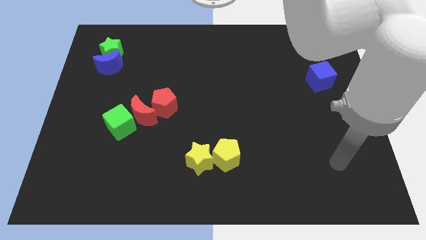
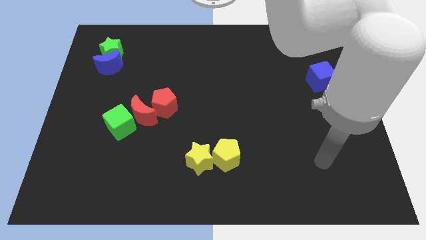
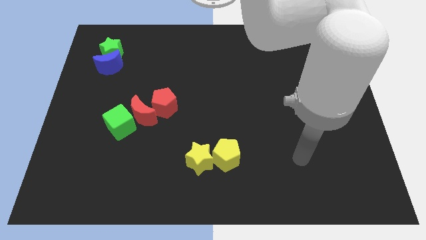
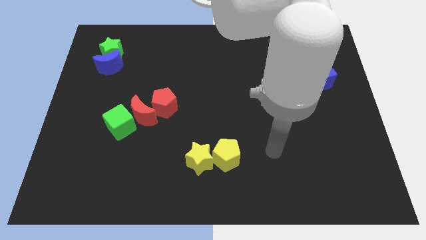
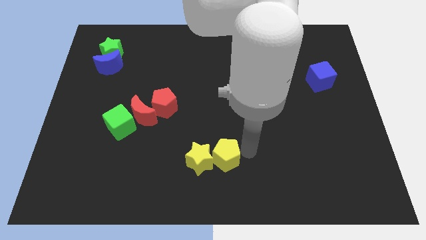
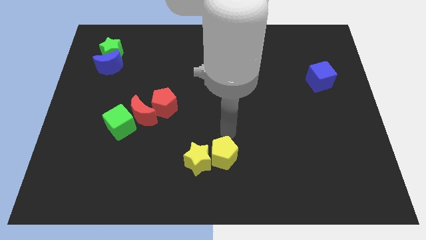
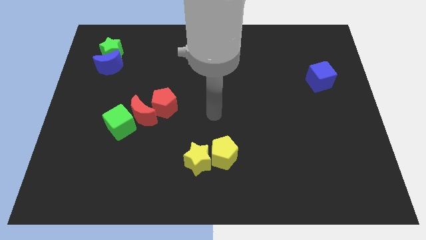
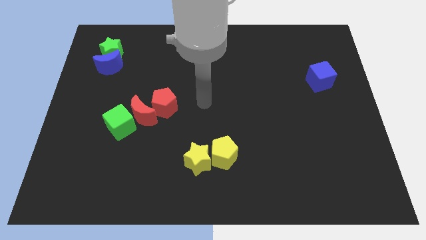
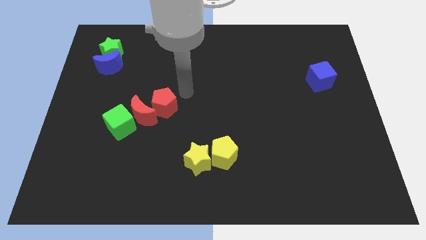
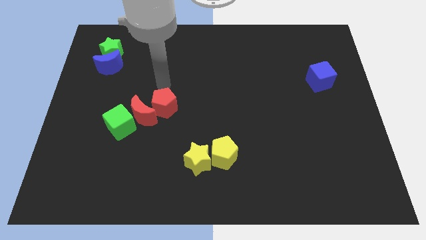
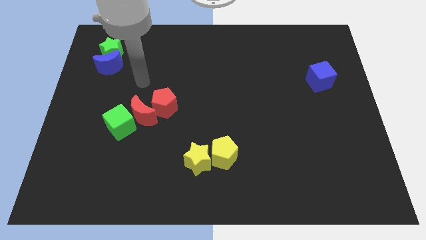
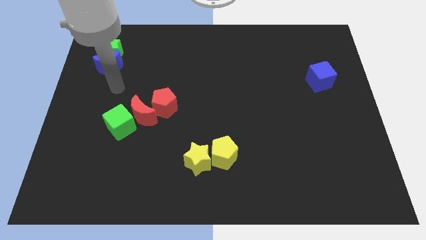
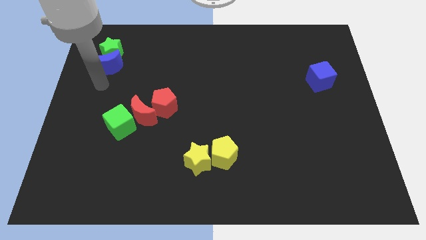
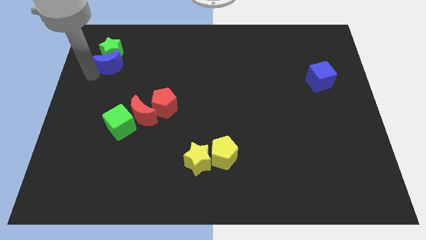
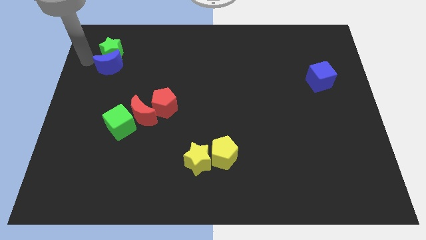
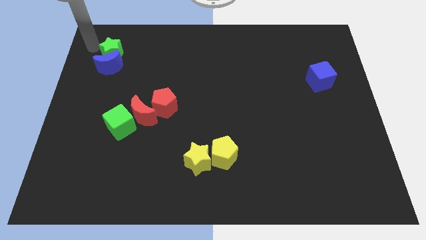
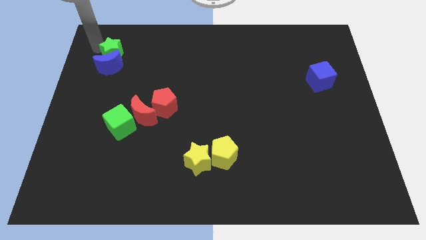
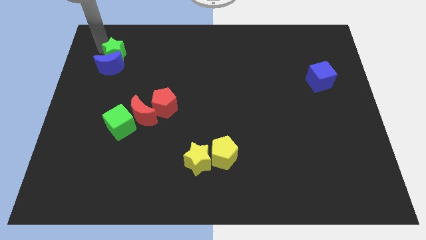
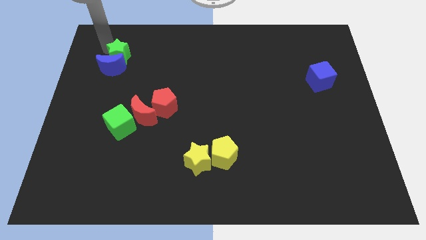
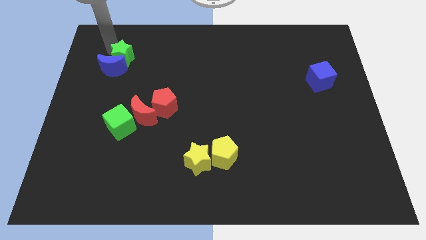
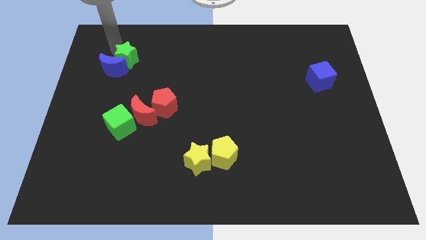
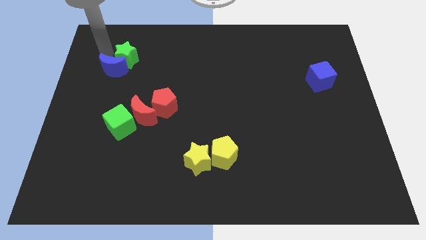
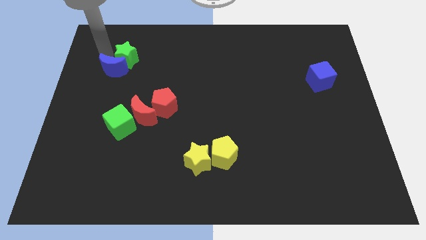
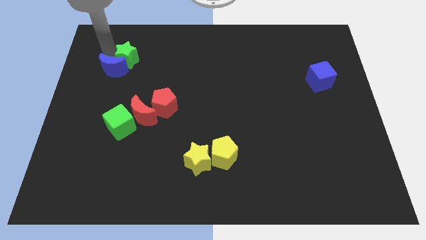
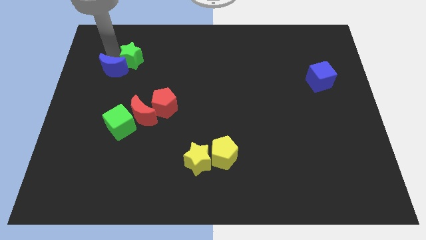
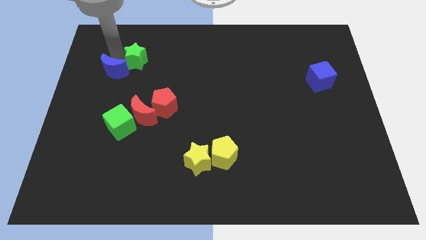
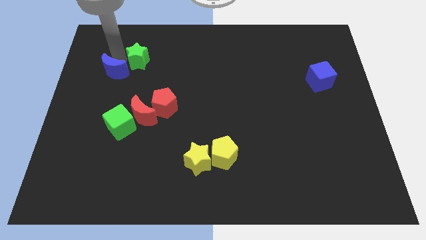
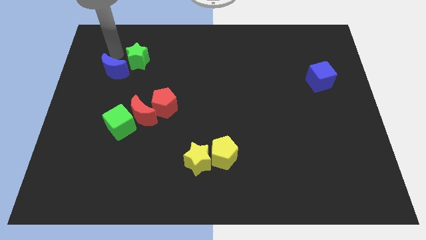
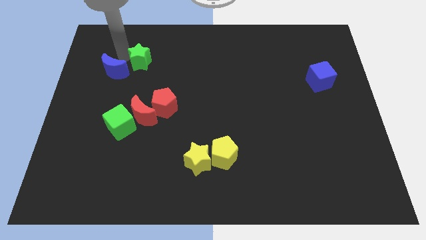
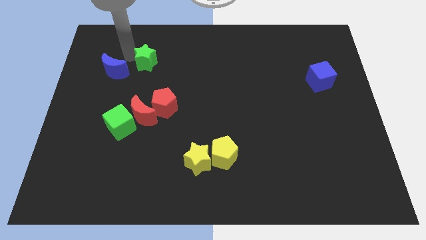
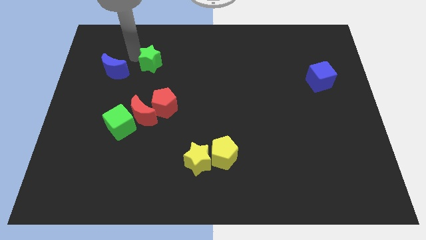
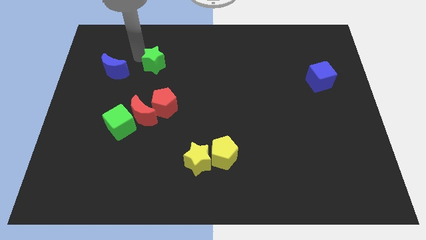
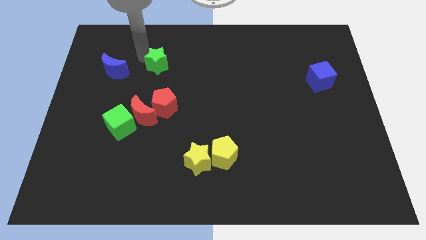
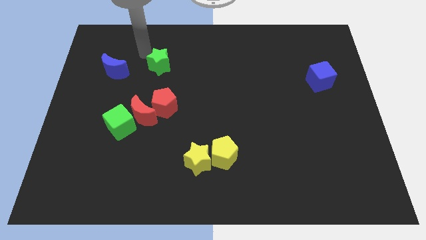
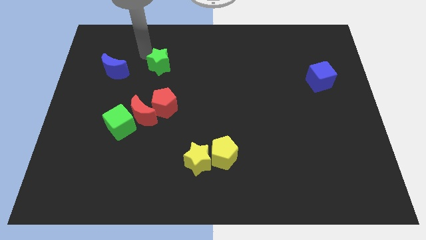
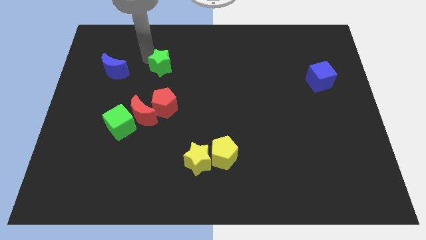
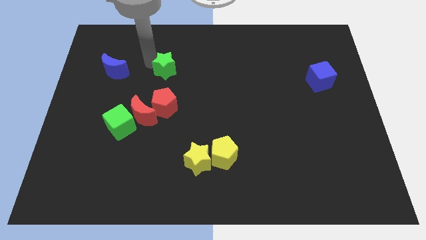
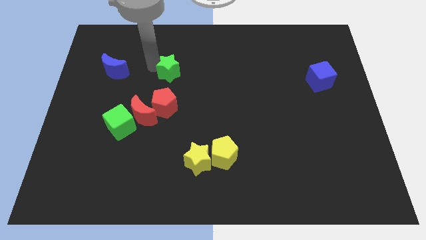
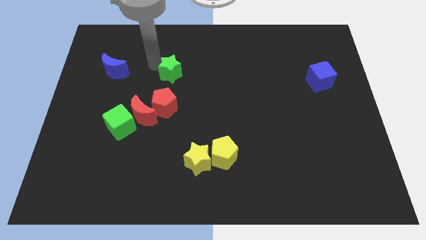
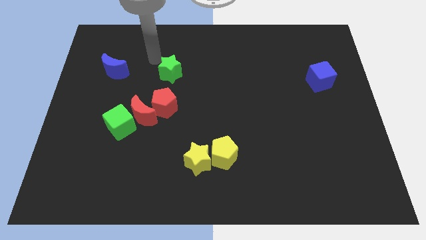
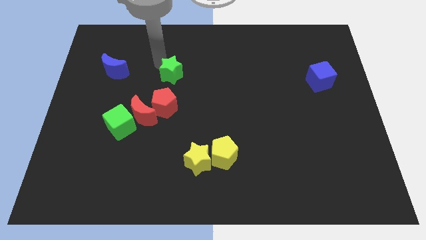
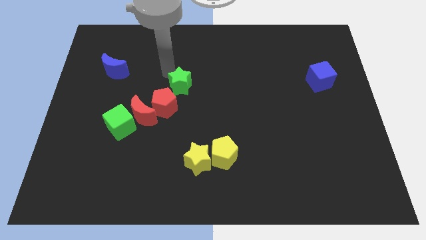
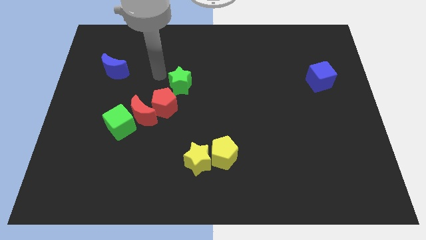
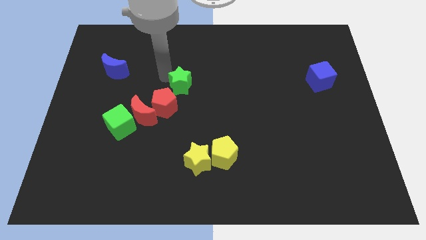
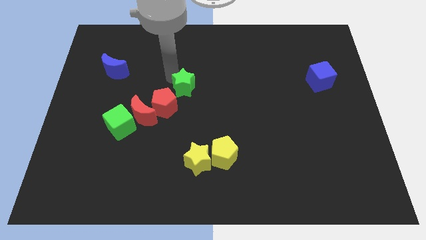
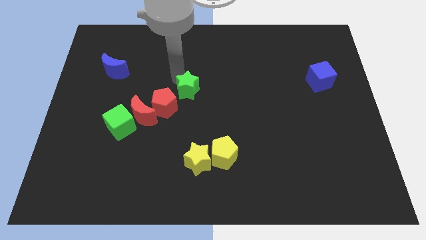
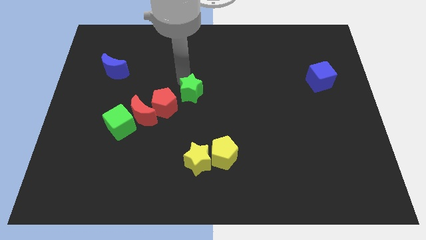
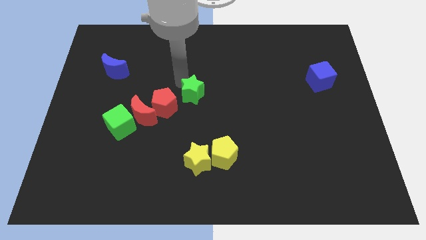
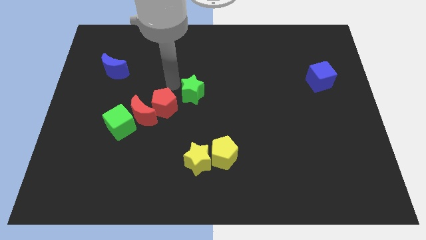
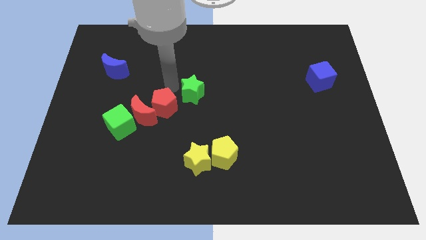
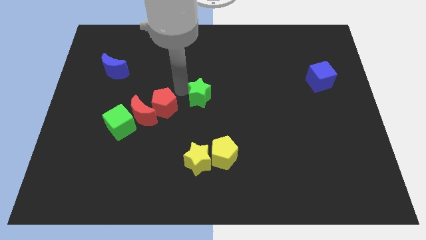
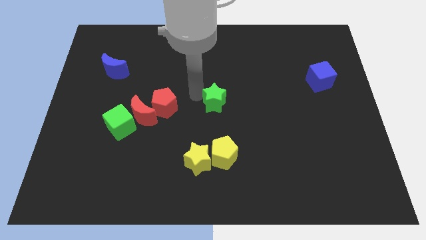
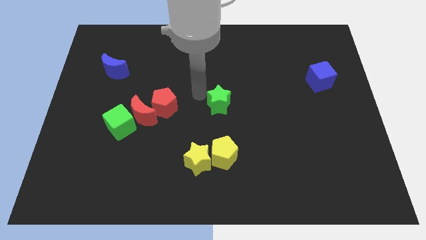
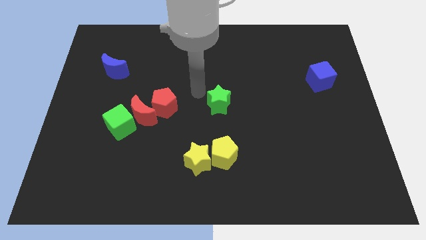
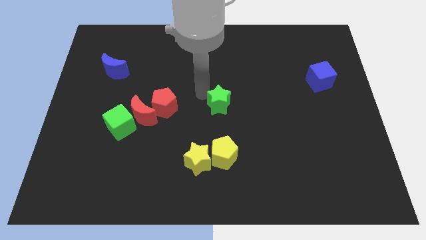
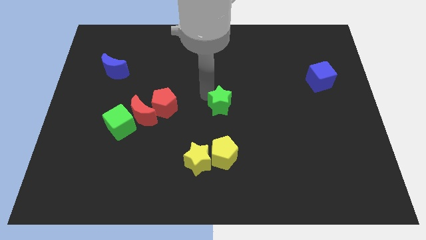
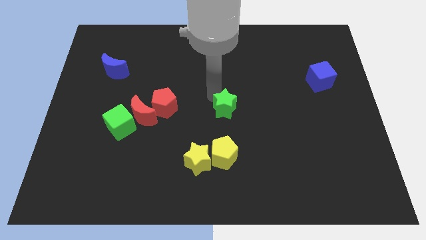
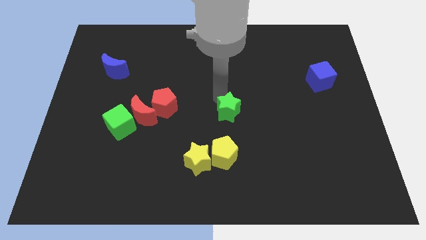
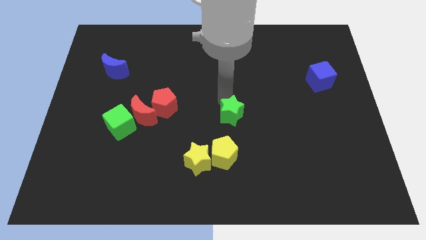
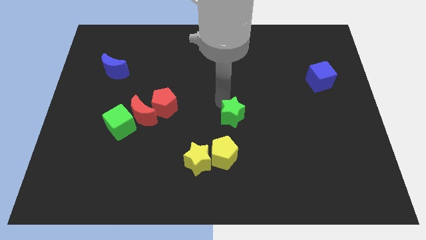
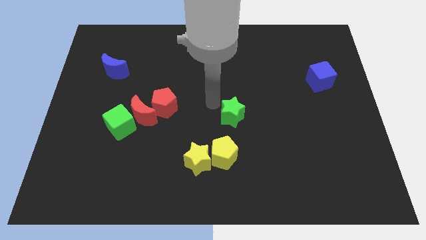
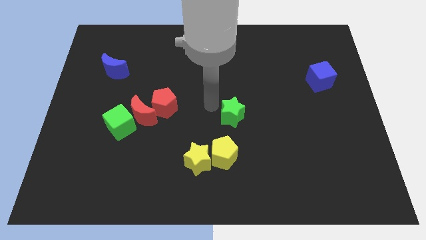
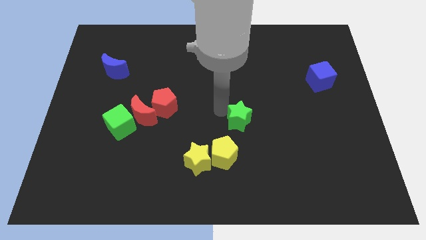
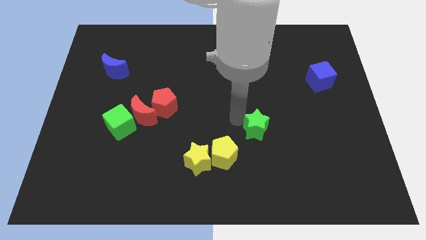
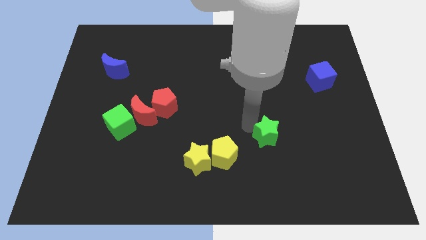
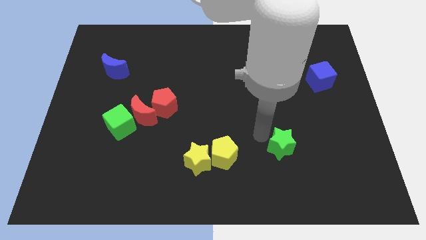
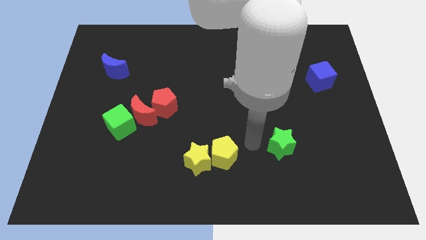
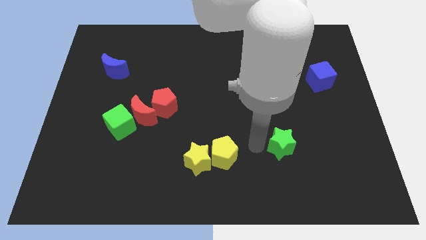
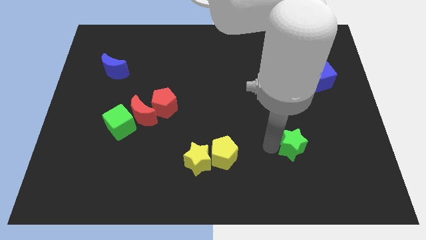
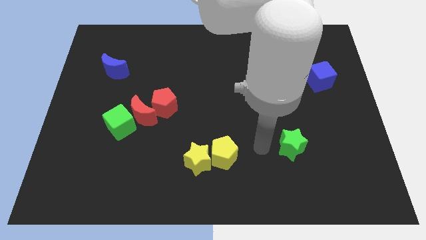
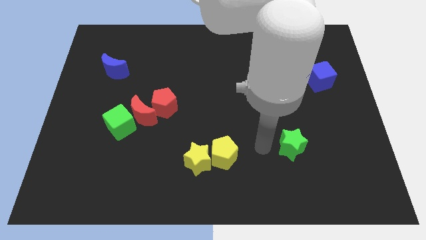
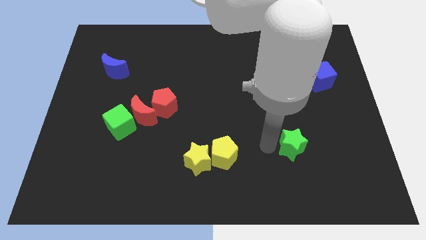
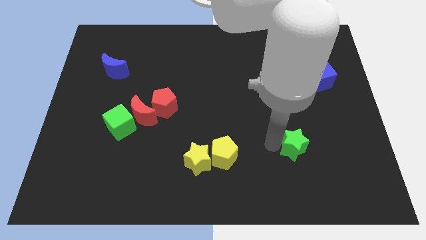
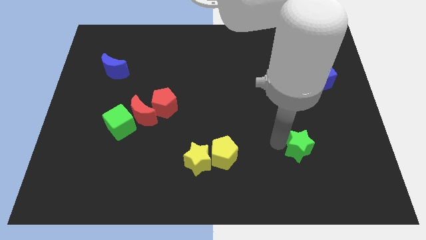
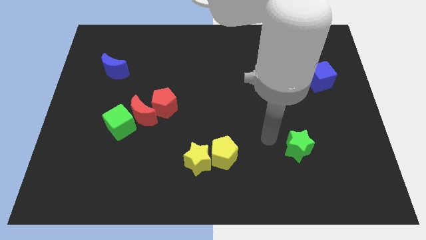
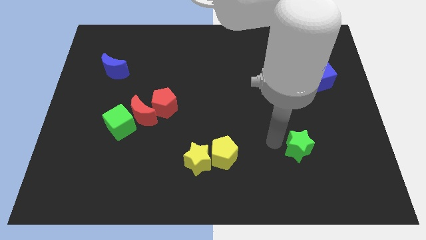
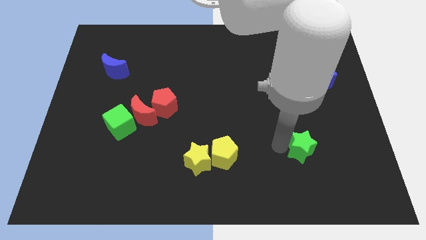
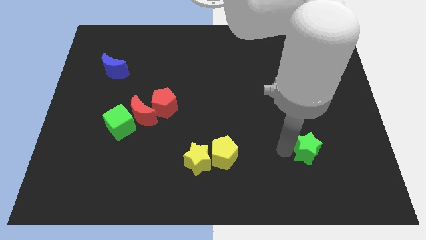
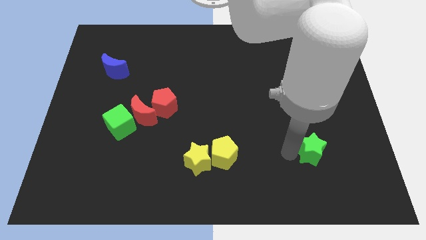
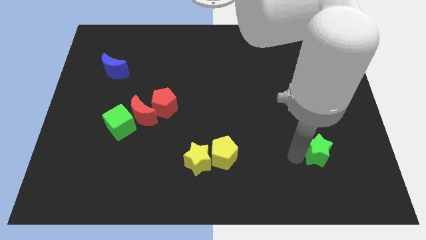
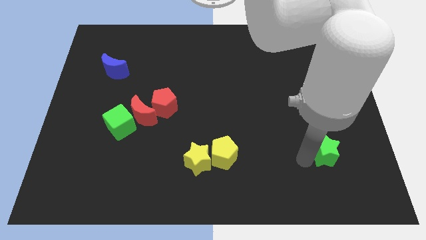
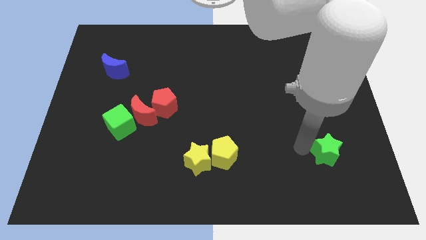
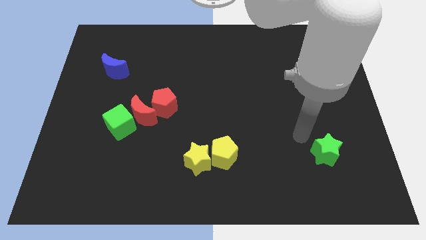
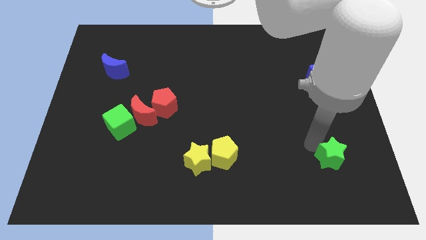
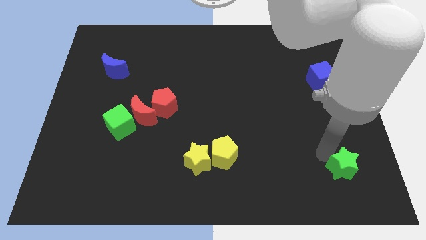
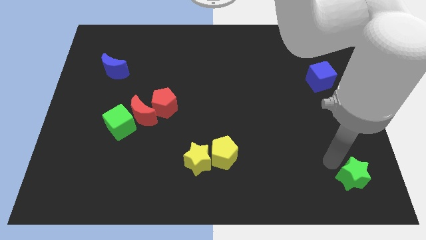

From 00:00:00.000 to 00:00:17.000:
push the green star to the bottom right corner
